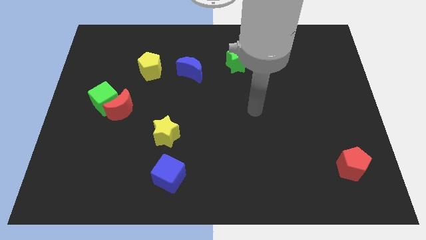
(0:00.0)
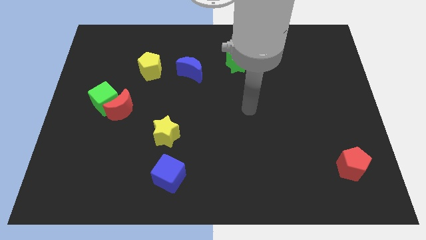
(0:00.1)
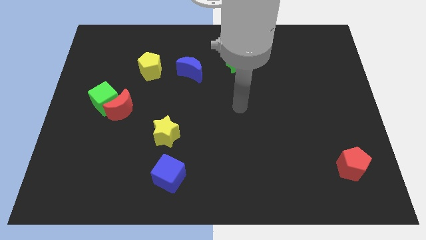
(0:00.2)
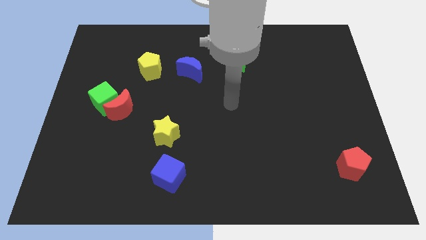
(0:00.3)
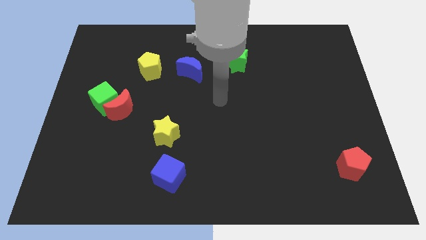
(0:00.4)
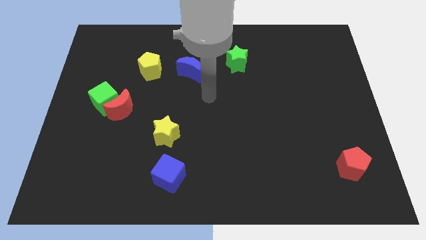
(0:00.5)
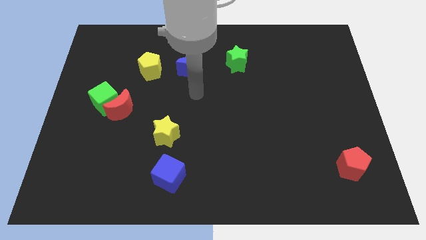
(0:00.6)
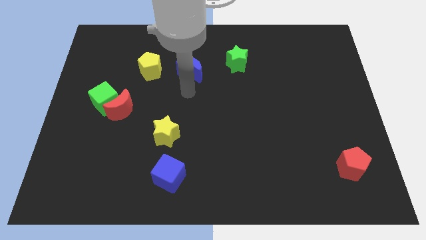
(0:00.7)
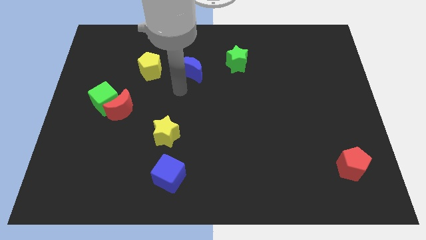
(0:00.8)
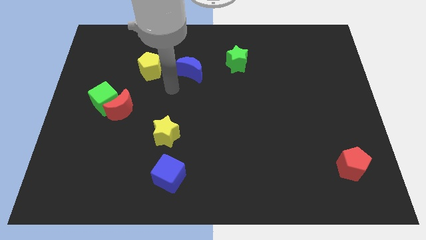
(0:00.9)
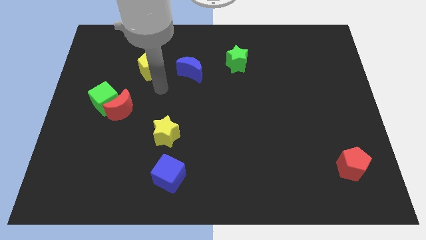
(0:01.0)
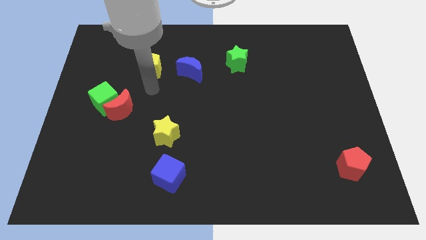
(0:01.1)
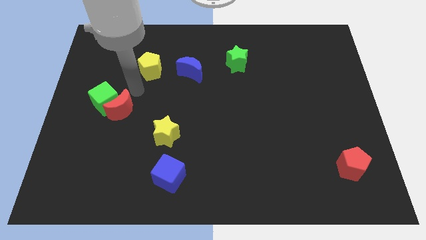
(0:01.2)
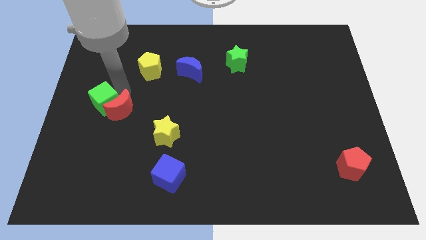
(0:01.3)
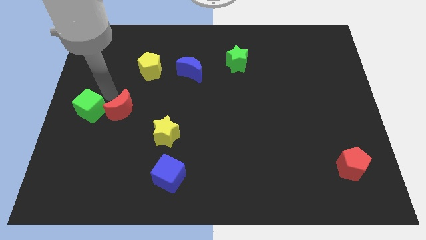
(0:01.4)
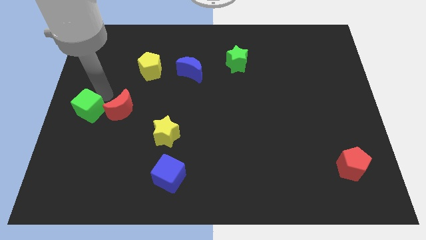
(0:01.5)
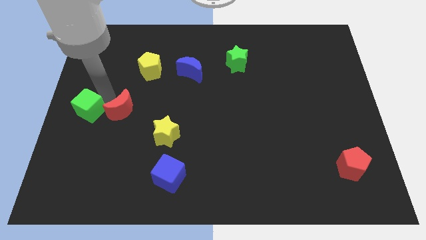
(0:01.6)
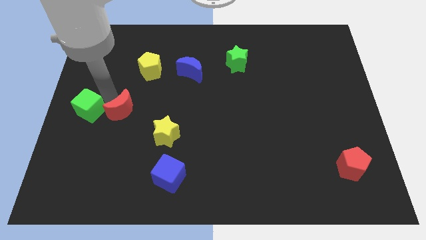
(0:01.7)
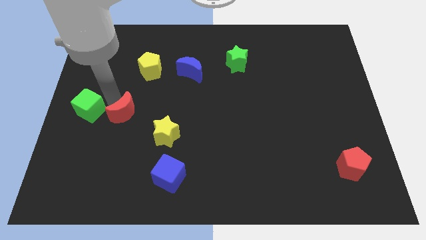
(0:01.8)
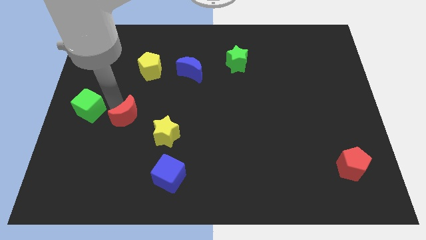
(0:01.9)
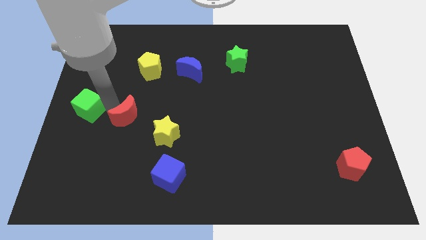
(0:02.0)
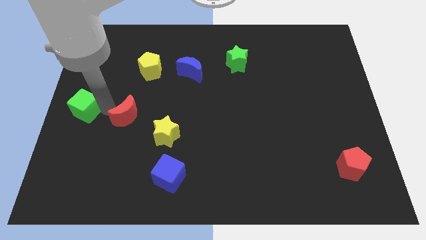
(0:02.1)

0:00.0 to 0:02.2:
pull the red moon apart from the green cube

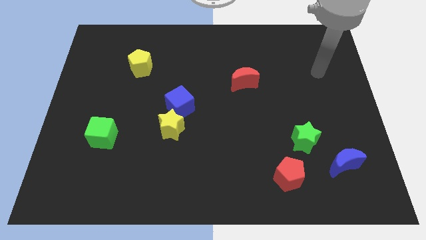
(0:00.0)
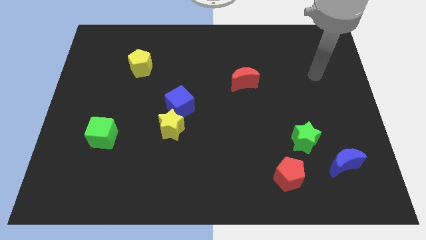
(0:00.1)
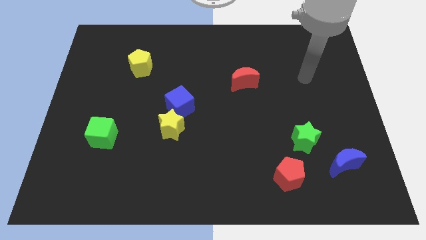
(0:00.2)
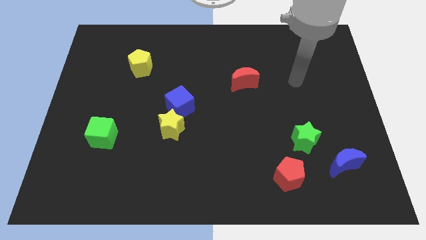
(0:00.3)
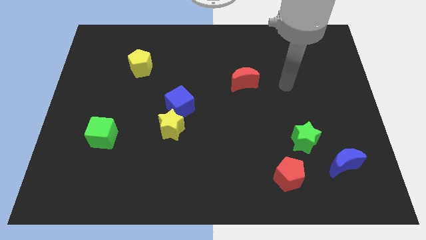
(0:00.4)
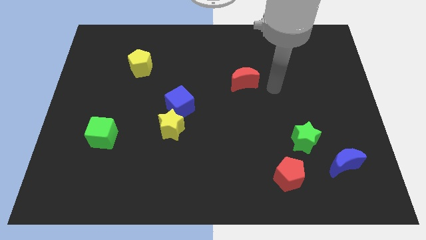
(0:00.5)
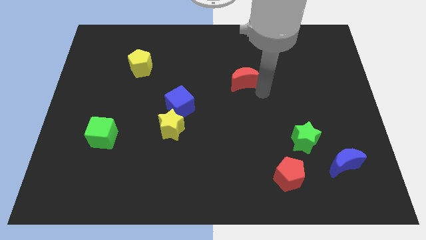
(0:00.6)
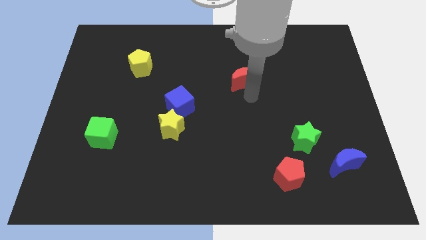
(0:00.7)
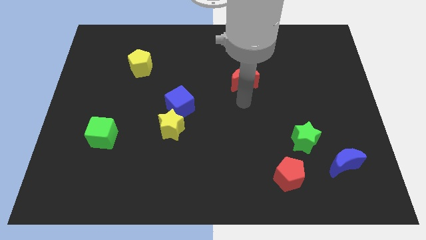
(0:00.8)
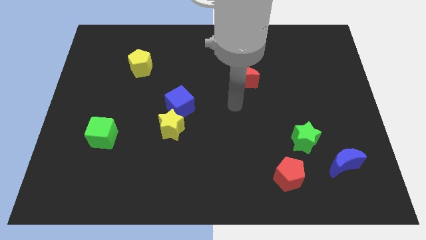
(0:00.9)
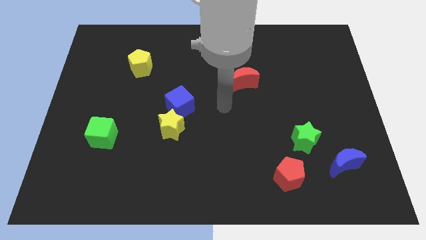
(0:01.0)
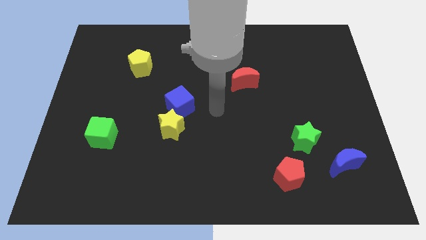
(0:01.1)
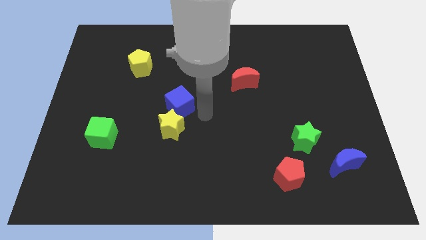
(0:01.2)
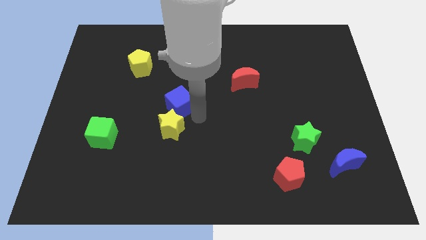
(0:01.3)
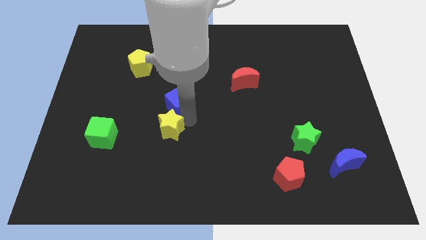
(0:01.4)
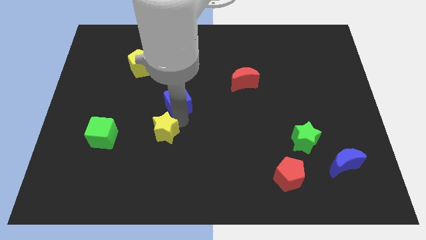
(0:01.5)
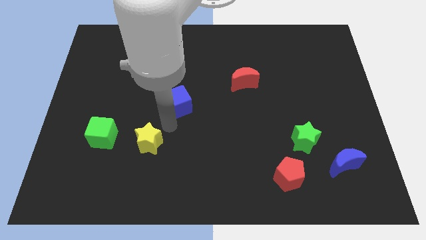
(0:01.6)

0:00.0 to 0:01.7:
pull the blue cube apart from the yellow star

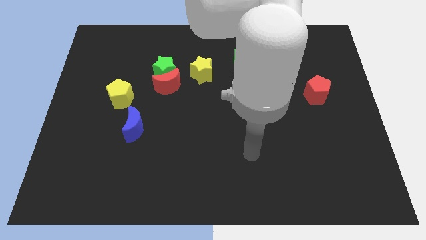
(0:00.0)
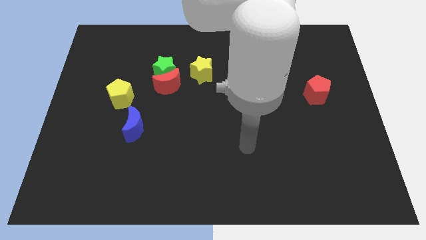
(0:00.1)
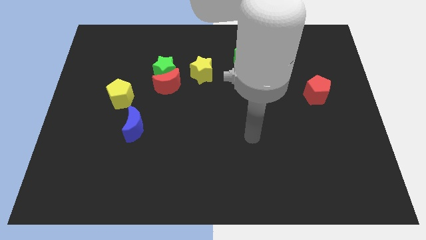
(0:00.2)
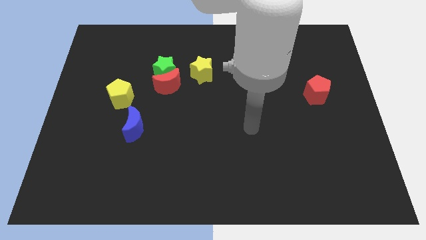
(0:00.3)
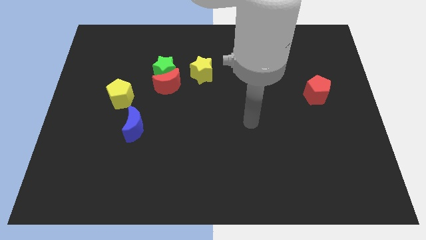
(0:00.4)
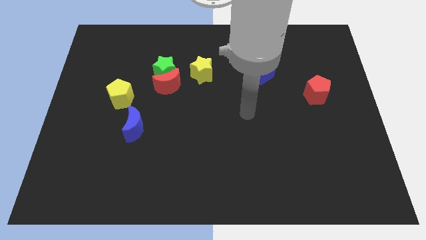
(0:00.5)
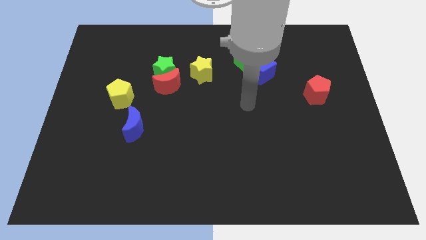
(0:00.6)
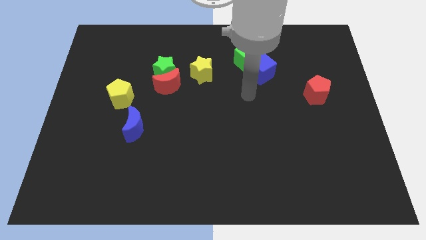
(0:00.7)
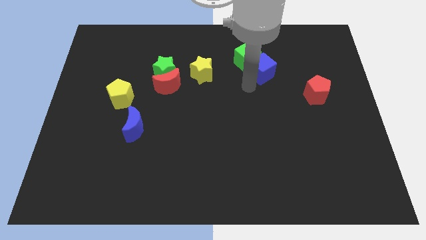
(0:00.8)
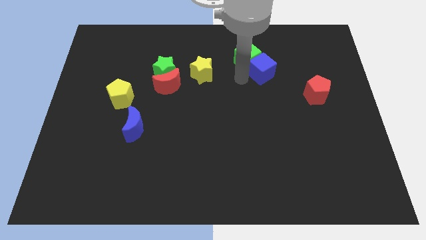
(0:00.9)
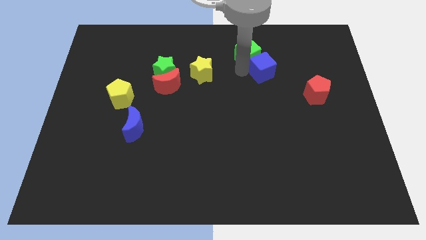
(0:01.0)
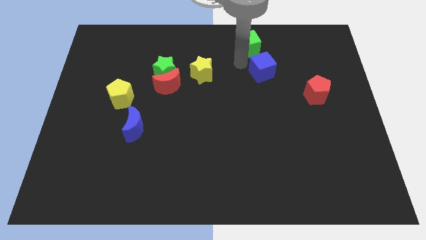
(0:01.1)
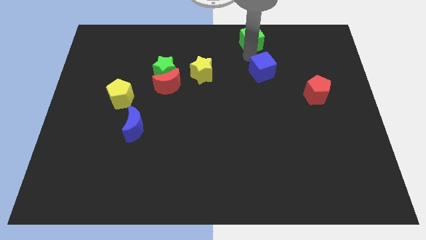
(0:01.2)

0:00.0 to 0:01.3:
pull the blue cube apart from the green cube

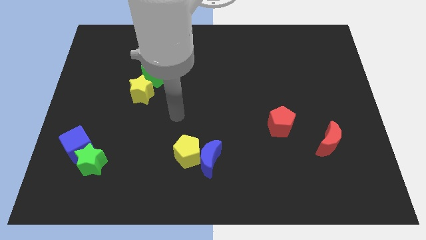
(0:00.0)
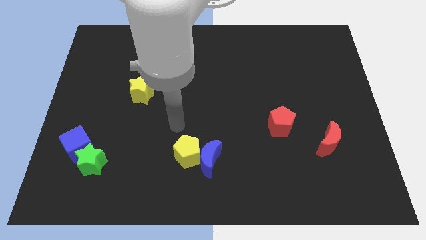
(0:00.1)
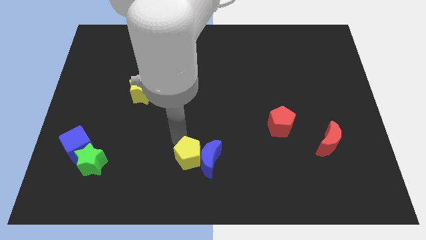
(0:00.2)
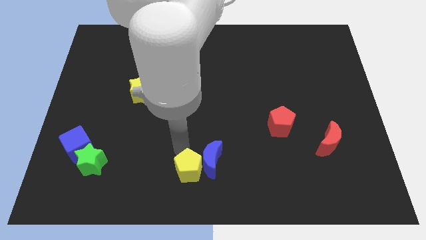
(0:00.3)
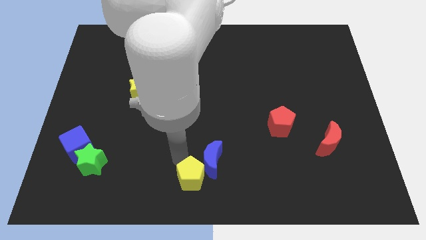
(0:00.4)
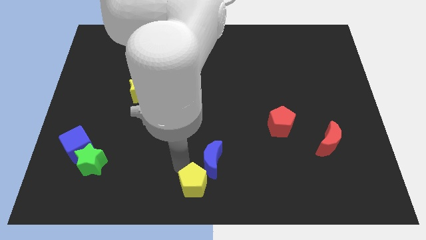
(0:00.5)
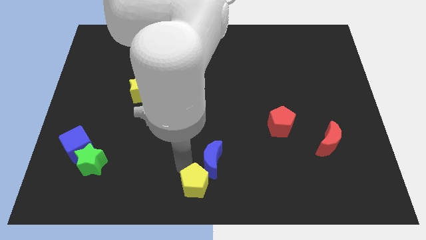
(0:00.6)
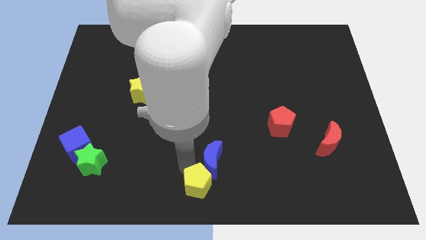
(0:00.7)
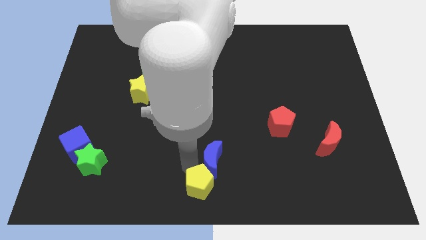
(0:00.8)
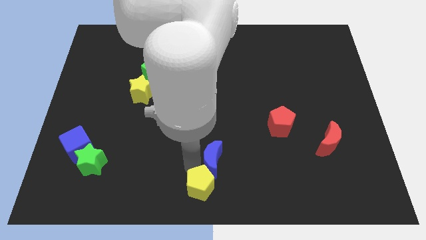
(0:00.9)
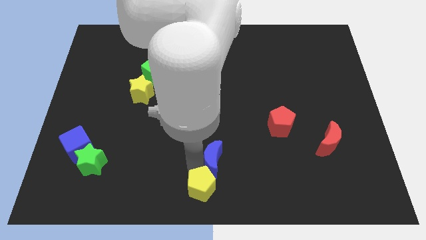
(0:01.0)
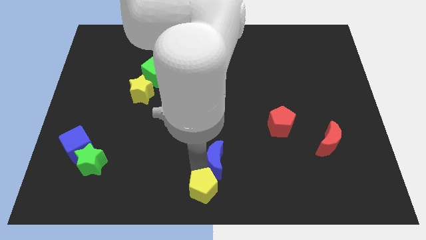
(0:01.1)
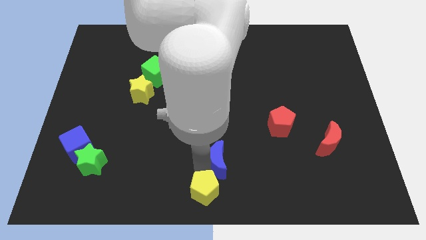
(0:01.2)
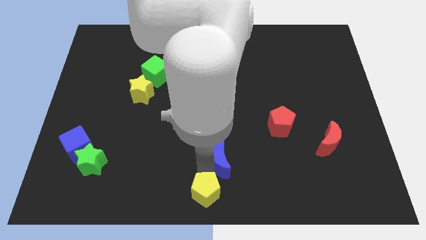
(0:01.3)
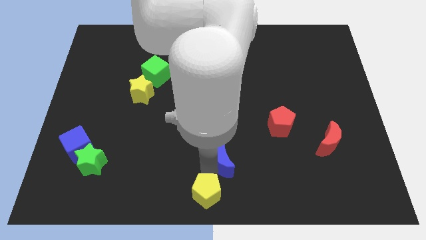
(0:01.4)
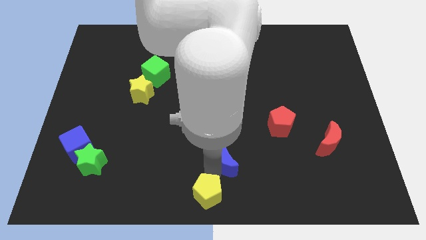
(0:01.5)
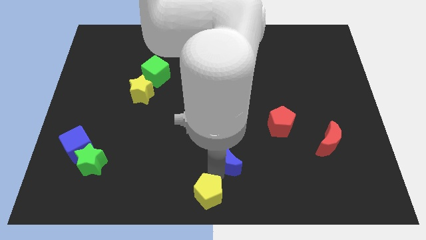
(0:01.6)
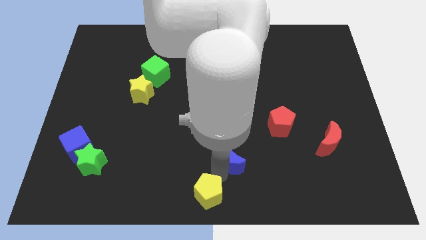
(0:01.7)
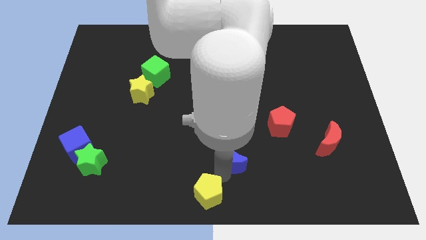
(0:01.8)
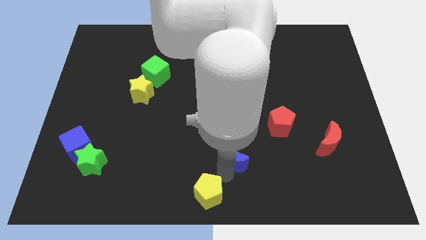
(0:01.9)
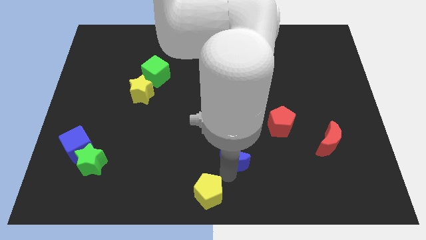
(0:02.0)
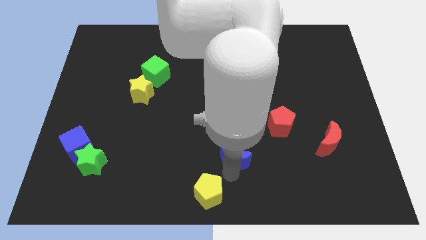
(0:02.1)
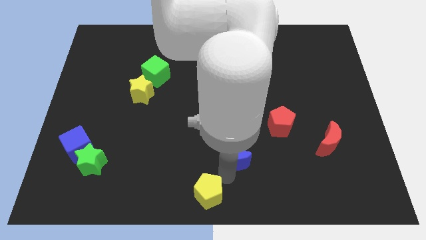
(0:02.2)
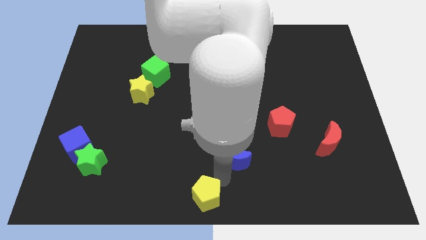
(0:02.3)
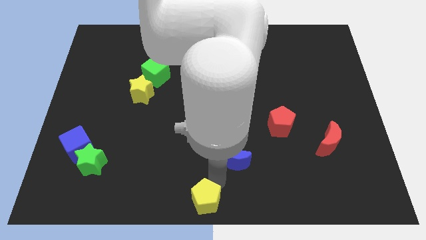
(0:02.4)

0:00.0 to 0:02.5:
pull the blue moon apart from the yellow pentagon

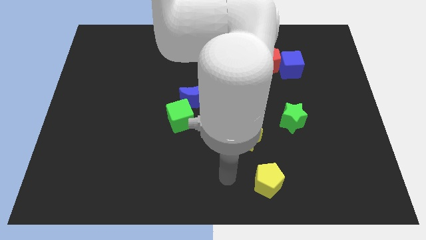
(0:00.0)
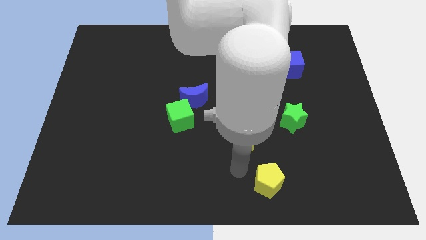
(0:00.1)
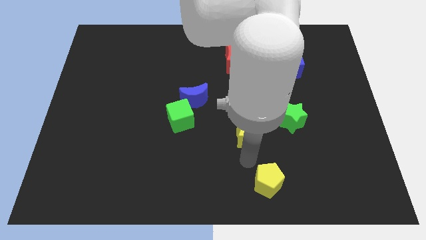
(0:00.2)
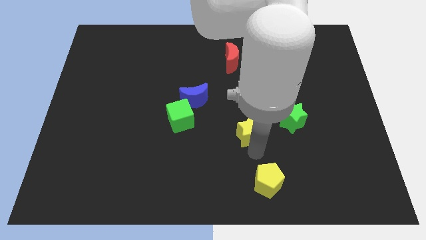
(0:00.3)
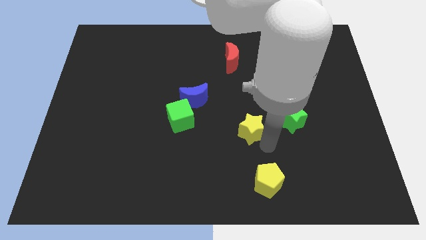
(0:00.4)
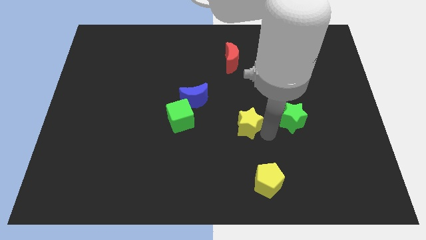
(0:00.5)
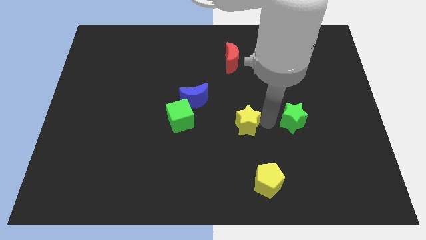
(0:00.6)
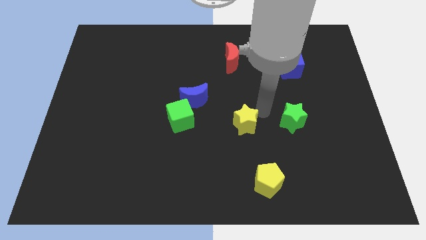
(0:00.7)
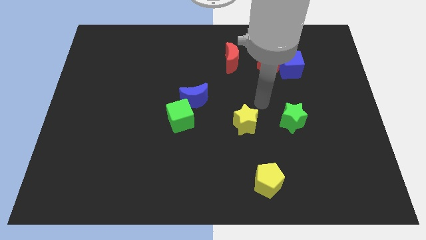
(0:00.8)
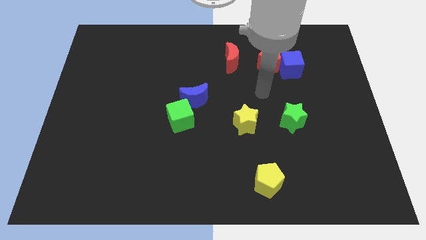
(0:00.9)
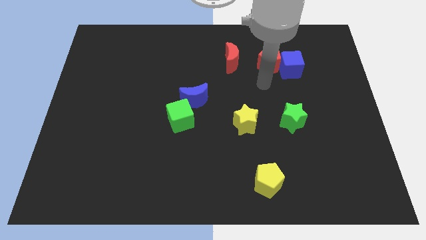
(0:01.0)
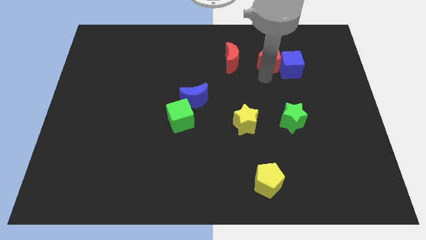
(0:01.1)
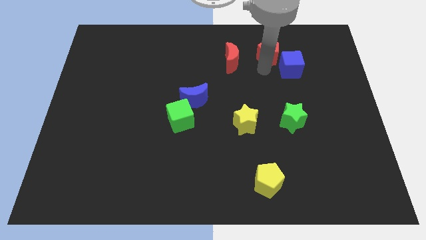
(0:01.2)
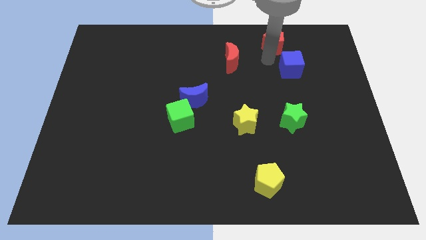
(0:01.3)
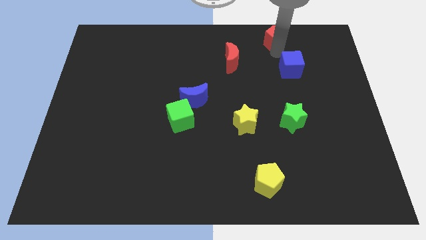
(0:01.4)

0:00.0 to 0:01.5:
separate the blue cube from the red pentagon

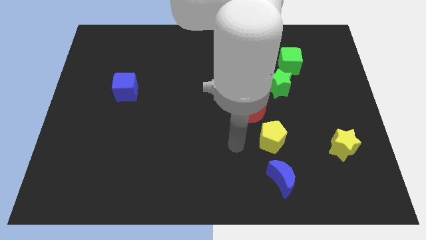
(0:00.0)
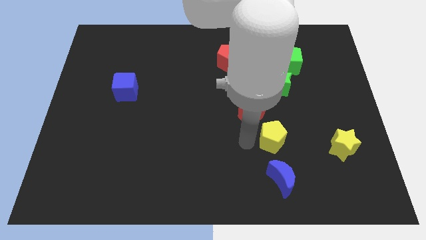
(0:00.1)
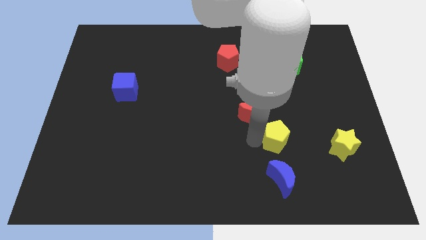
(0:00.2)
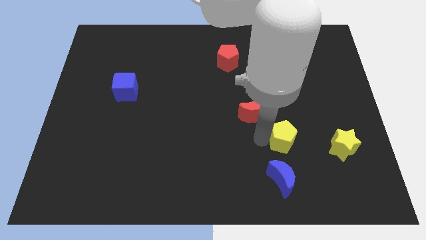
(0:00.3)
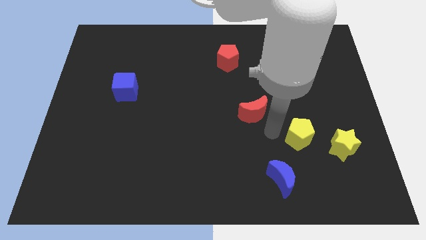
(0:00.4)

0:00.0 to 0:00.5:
pull the red moon apart from the yellow pentagon
